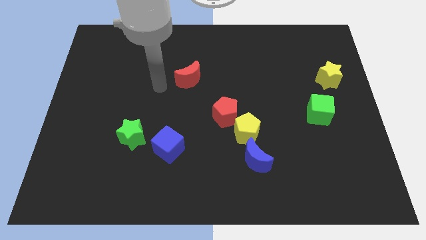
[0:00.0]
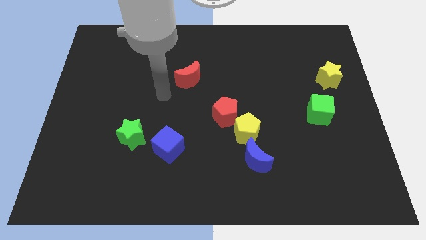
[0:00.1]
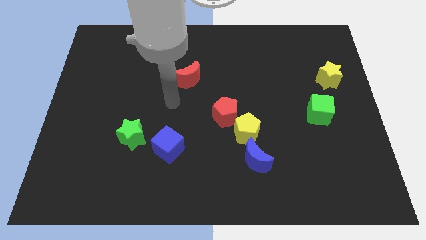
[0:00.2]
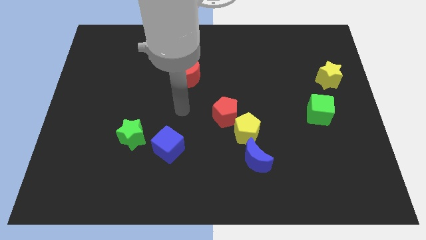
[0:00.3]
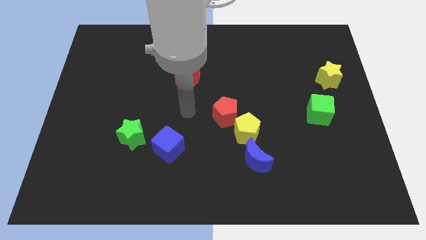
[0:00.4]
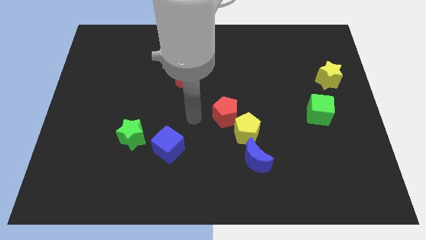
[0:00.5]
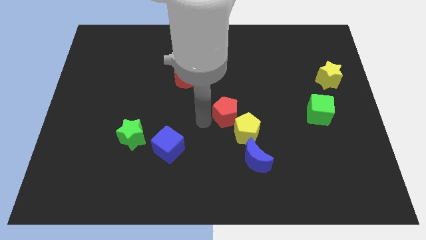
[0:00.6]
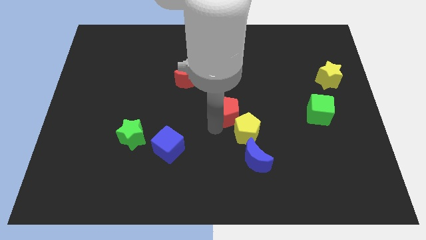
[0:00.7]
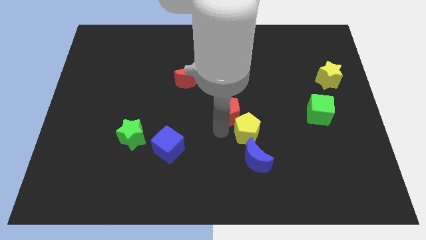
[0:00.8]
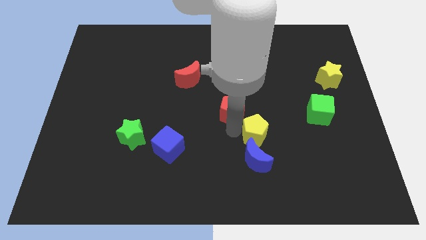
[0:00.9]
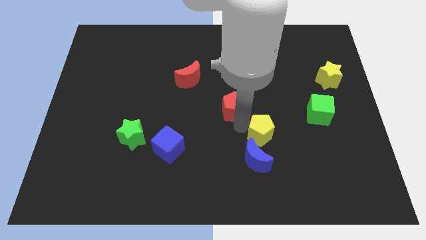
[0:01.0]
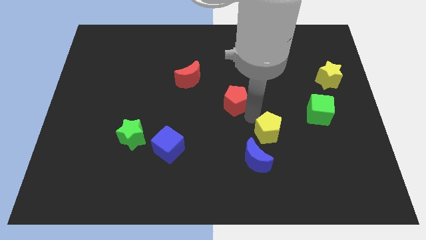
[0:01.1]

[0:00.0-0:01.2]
separate the red pentagon from the yellow pentagon

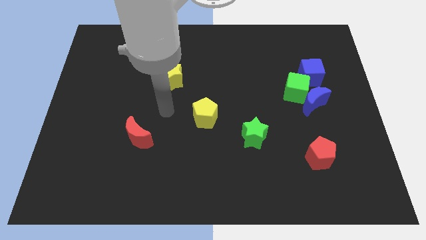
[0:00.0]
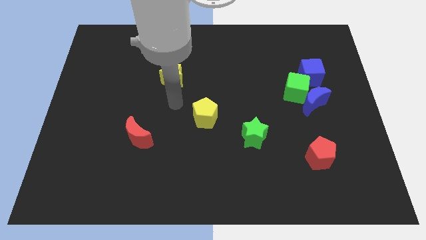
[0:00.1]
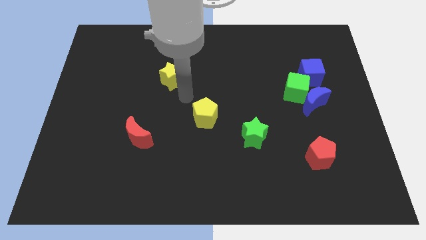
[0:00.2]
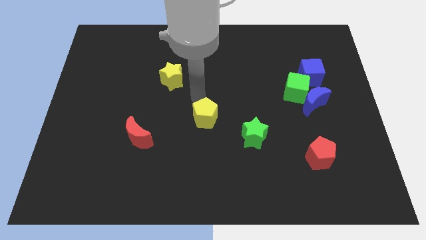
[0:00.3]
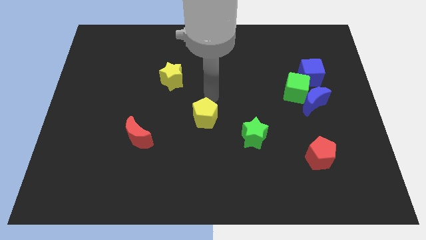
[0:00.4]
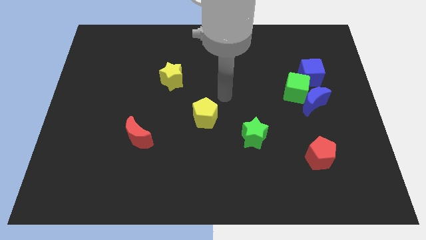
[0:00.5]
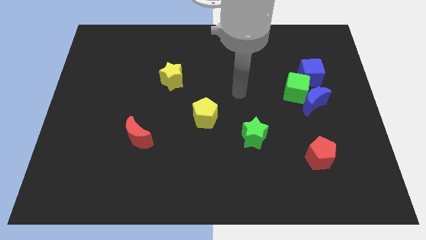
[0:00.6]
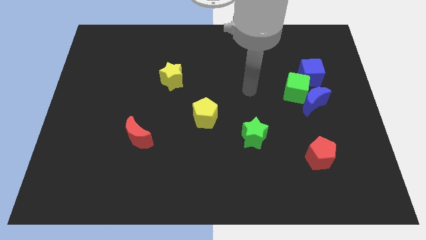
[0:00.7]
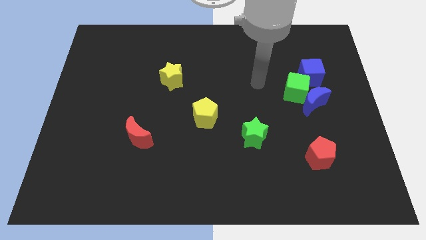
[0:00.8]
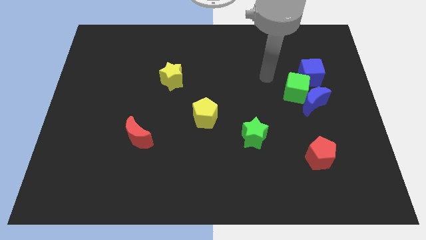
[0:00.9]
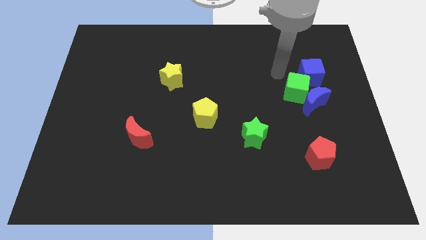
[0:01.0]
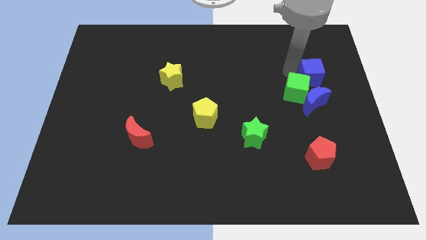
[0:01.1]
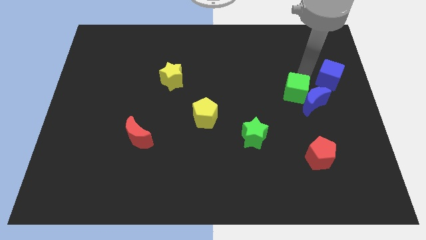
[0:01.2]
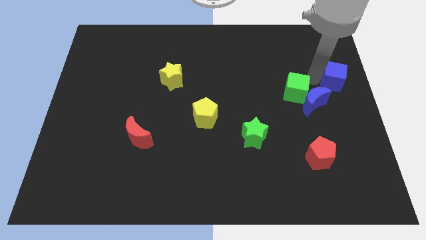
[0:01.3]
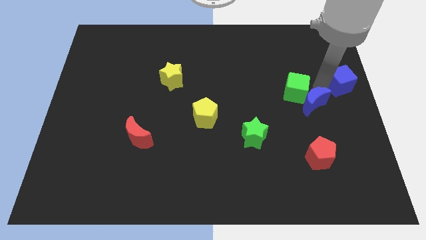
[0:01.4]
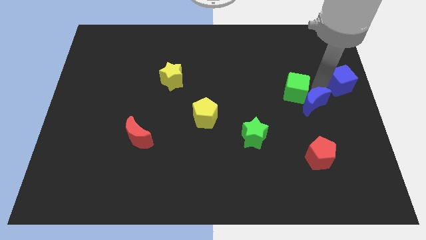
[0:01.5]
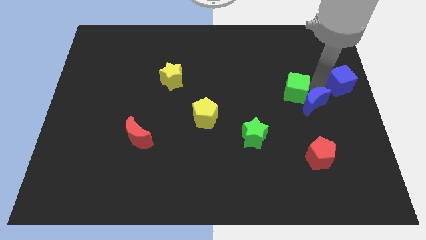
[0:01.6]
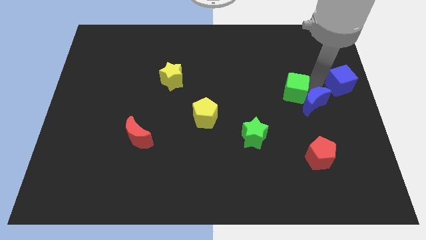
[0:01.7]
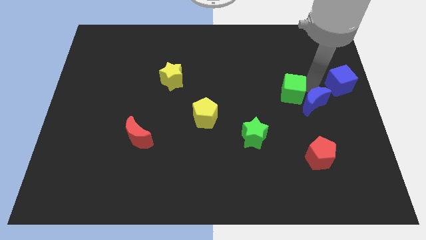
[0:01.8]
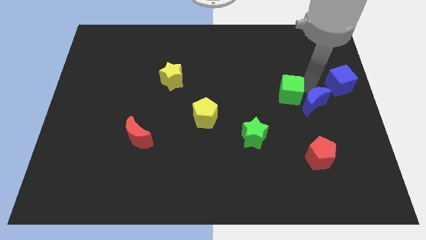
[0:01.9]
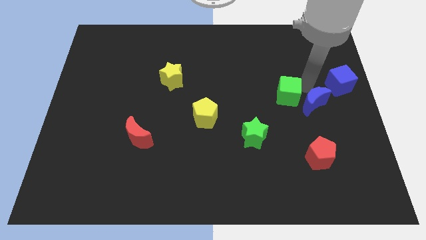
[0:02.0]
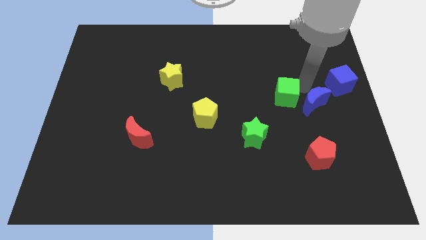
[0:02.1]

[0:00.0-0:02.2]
separate the green cube from the blue moon and blue cube

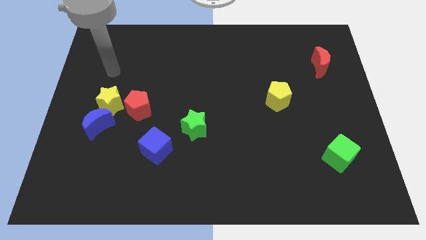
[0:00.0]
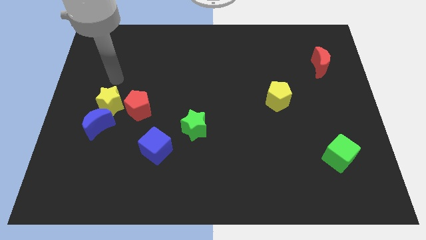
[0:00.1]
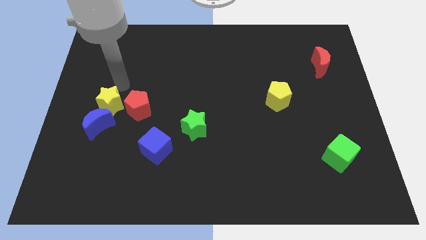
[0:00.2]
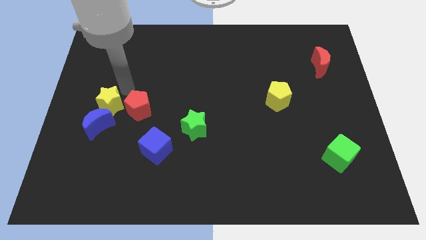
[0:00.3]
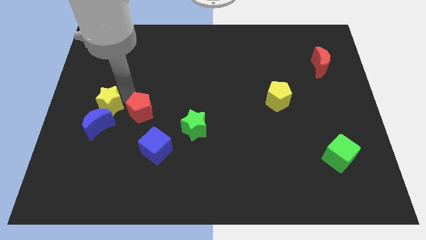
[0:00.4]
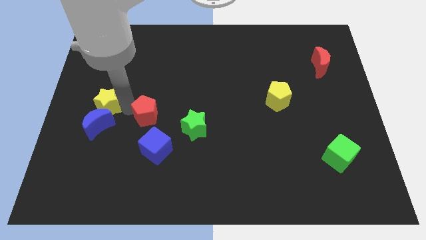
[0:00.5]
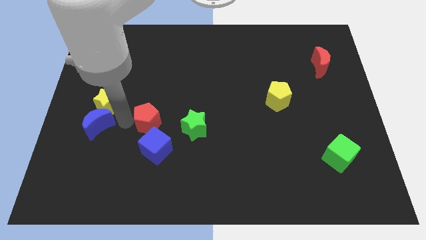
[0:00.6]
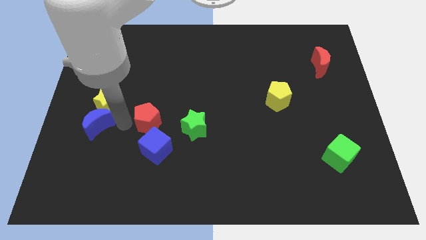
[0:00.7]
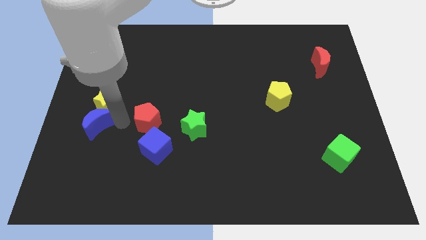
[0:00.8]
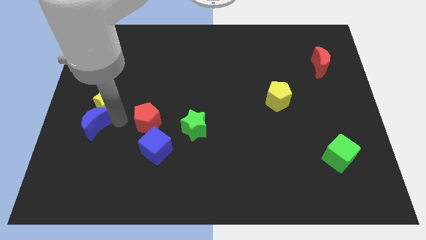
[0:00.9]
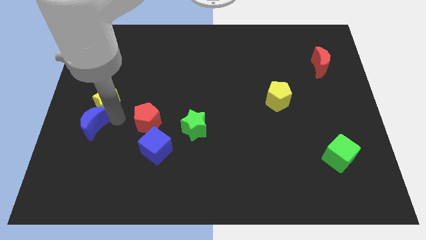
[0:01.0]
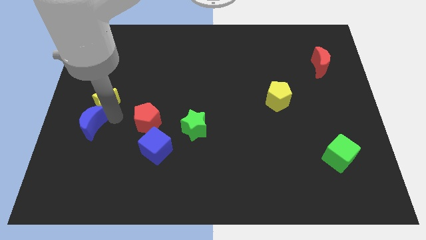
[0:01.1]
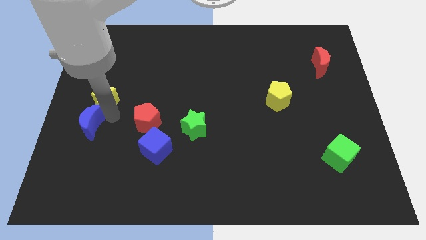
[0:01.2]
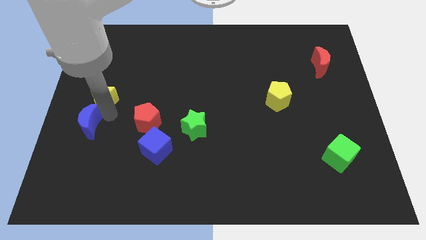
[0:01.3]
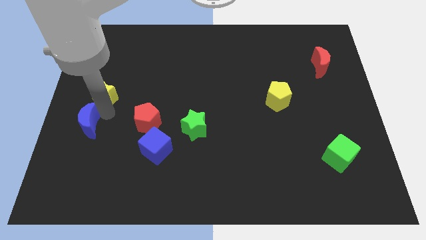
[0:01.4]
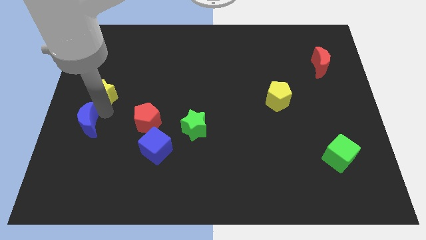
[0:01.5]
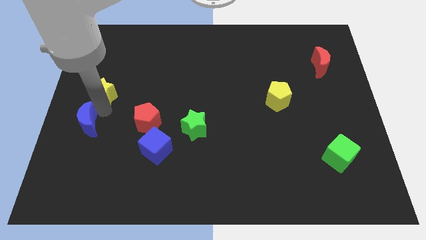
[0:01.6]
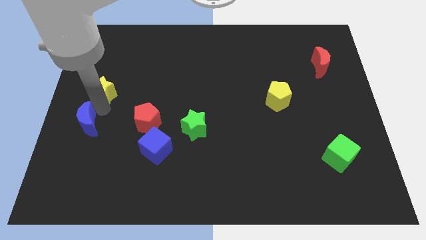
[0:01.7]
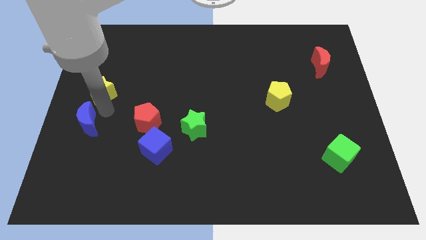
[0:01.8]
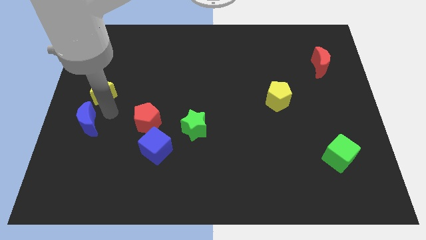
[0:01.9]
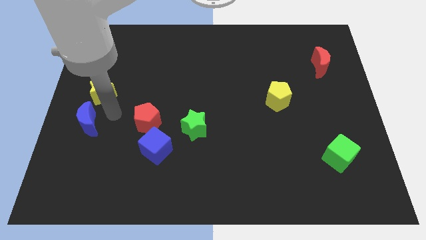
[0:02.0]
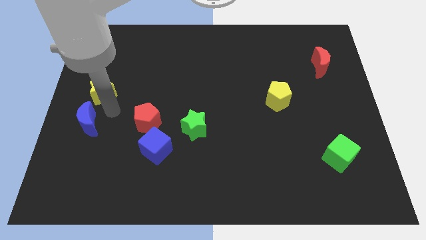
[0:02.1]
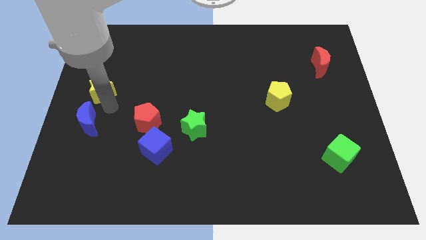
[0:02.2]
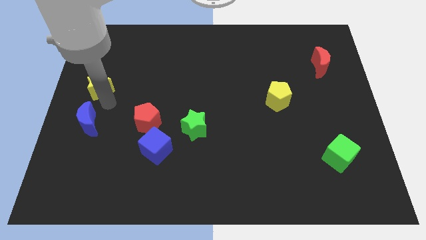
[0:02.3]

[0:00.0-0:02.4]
move the yellow star away from the blue moon and red pentagon

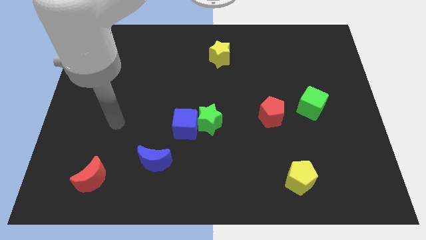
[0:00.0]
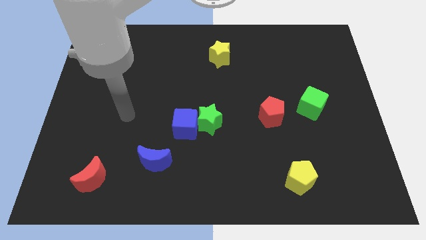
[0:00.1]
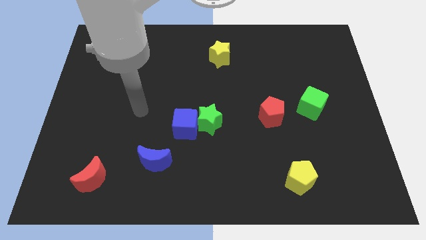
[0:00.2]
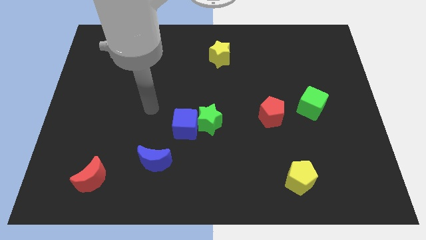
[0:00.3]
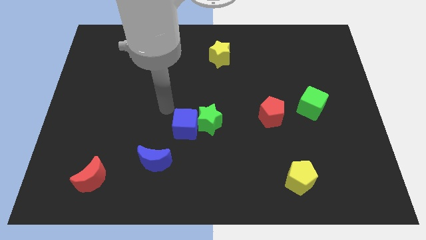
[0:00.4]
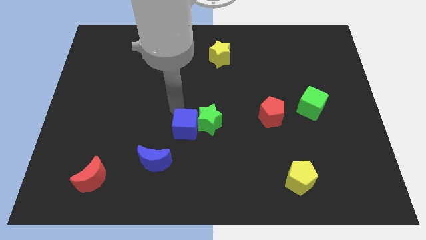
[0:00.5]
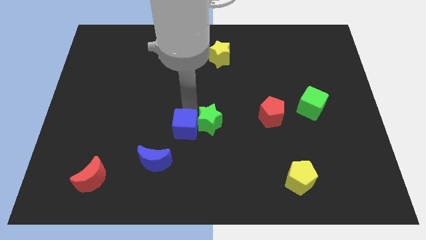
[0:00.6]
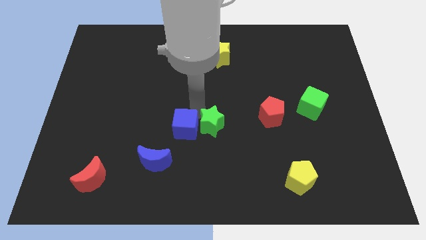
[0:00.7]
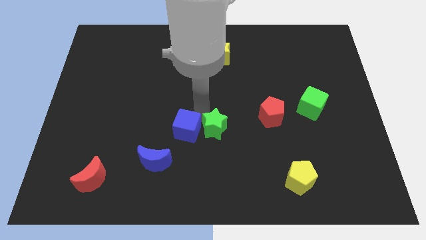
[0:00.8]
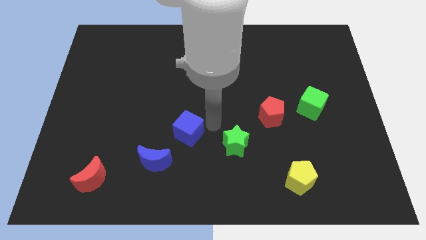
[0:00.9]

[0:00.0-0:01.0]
move the blue cube away from the green star

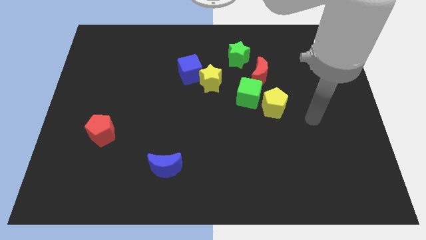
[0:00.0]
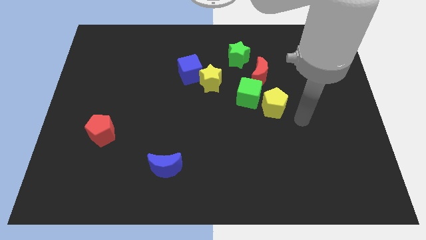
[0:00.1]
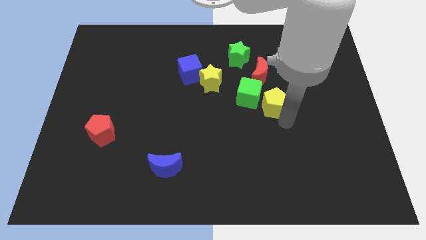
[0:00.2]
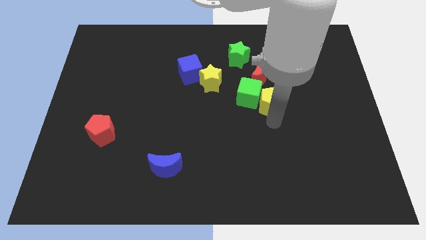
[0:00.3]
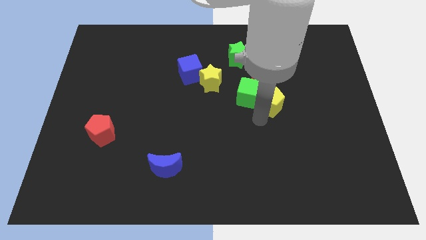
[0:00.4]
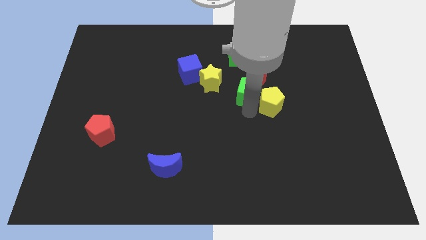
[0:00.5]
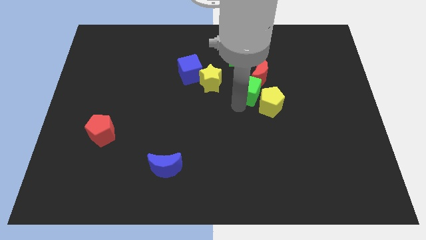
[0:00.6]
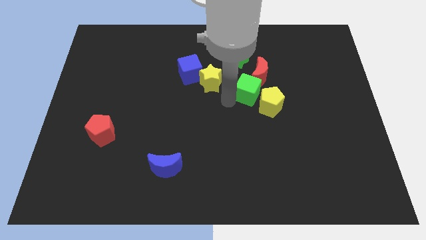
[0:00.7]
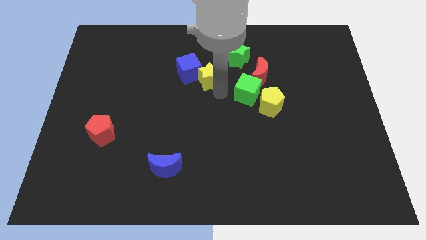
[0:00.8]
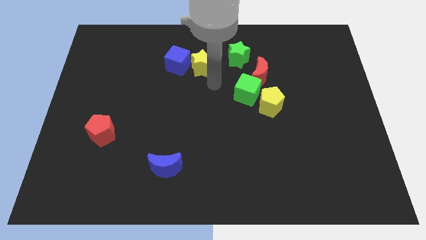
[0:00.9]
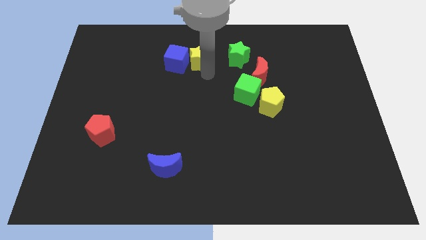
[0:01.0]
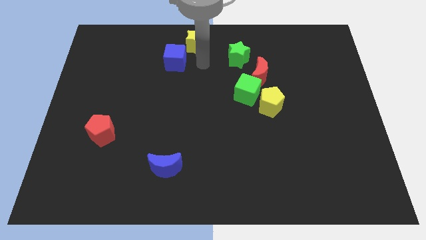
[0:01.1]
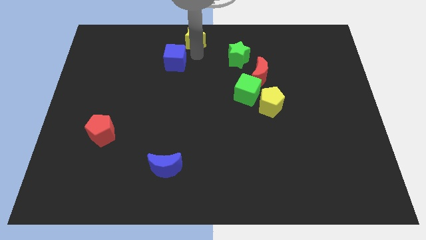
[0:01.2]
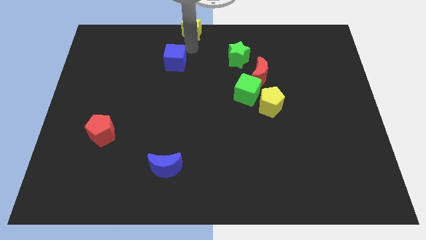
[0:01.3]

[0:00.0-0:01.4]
separate the blue cube from the yellow star

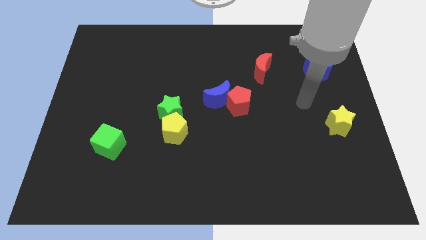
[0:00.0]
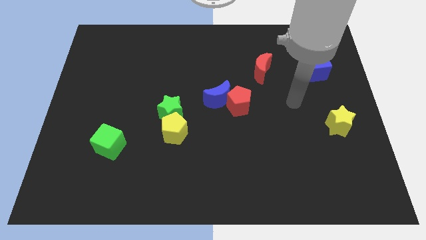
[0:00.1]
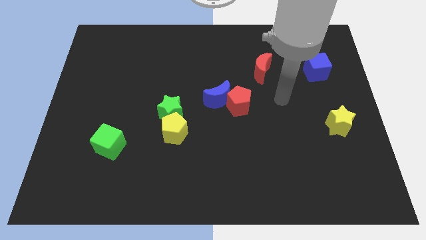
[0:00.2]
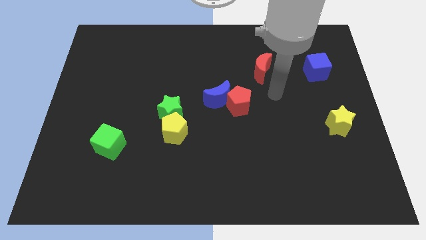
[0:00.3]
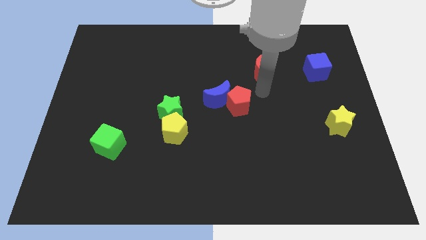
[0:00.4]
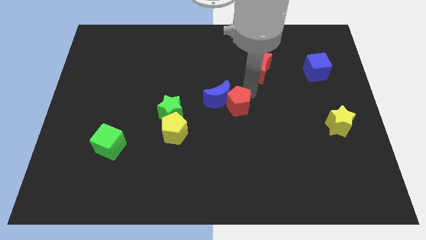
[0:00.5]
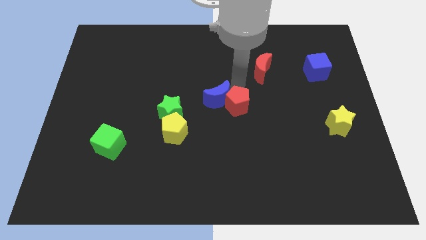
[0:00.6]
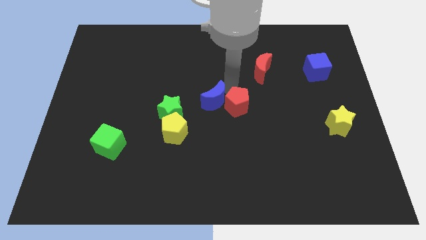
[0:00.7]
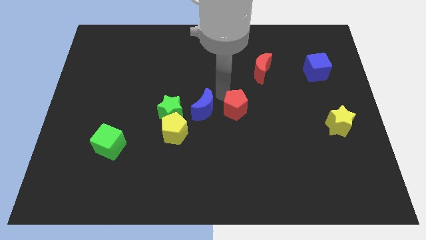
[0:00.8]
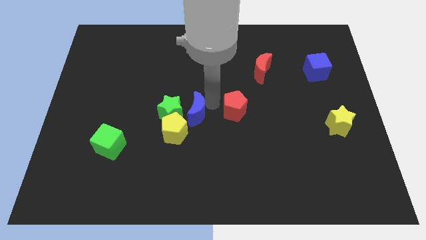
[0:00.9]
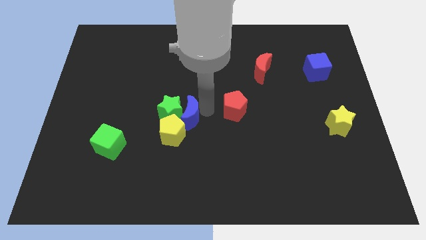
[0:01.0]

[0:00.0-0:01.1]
pull the red pentagon apart from the blue moon
